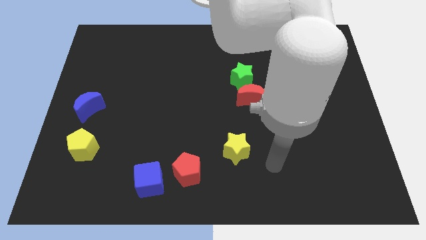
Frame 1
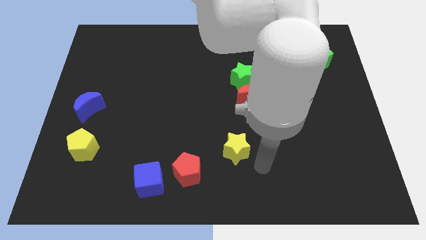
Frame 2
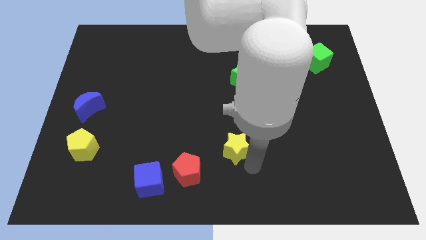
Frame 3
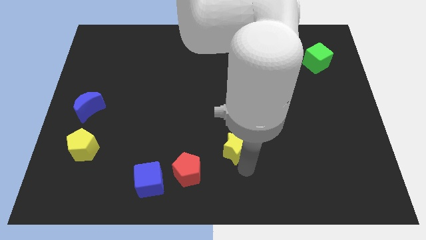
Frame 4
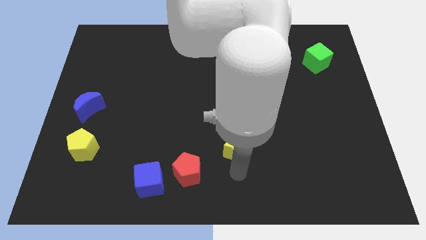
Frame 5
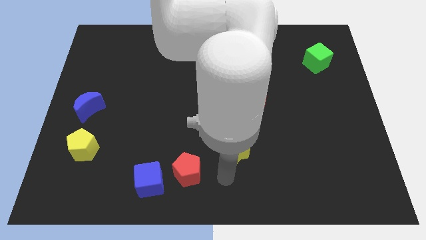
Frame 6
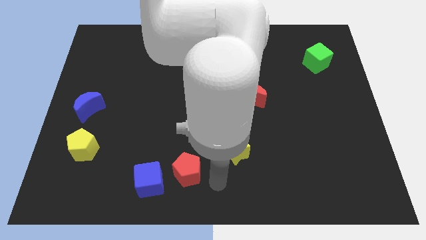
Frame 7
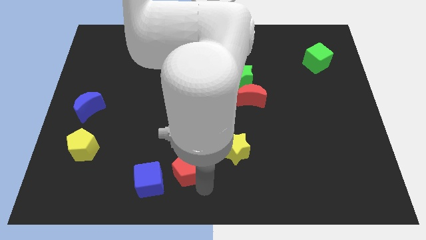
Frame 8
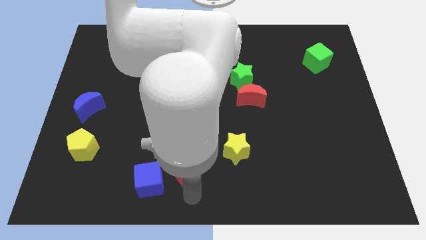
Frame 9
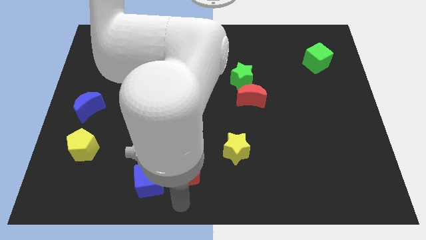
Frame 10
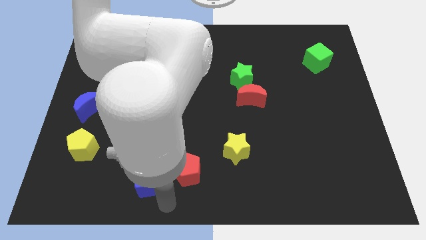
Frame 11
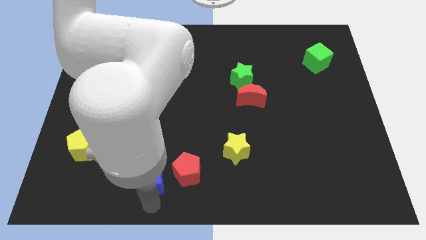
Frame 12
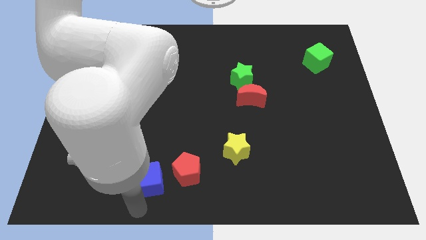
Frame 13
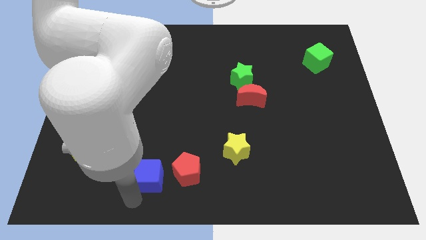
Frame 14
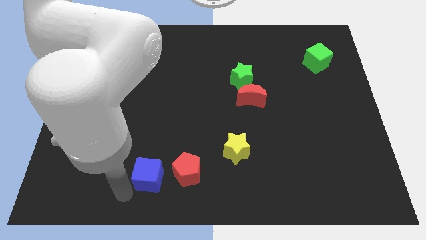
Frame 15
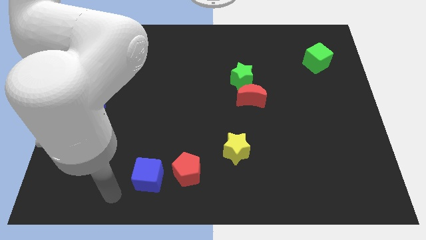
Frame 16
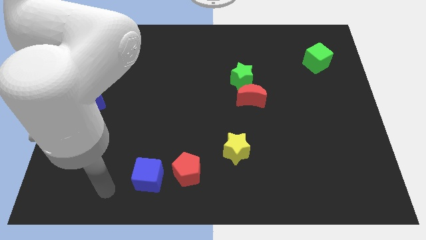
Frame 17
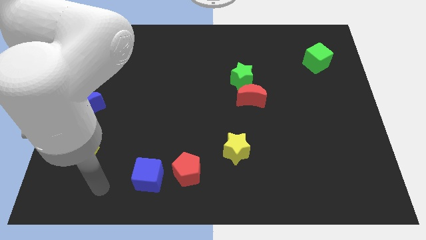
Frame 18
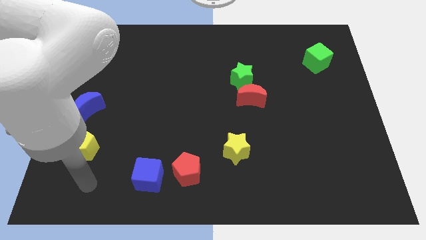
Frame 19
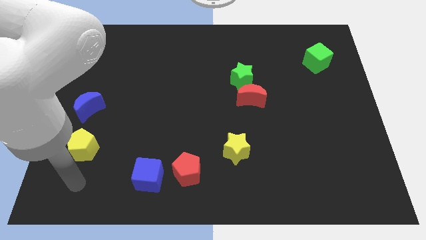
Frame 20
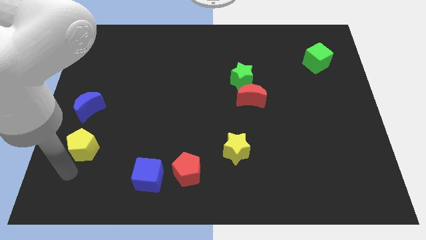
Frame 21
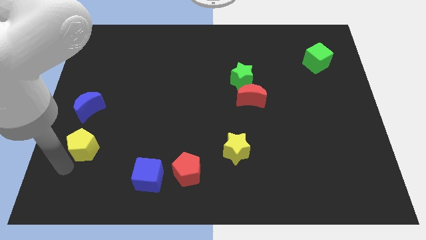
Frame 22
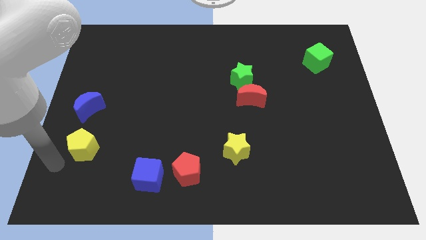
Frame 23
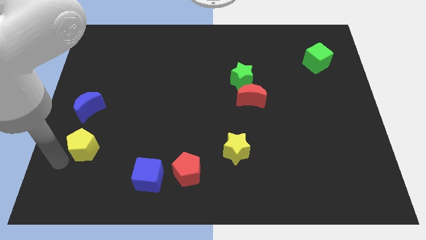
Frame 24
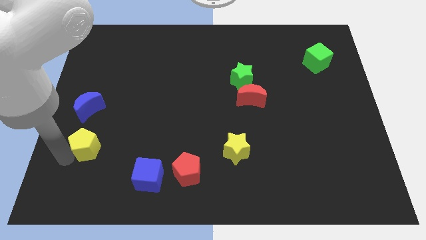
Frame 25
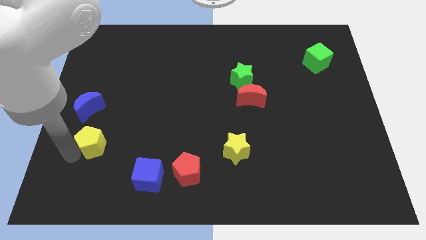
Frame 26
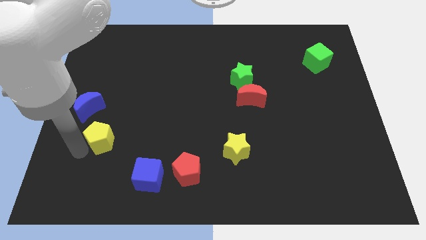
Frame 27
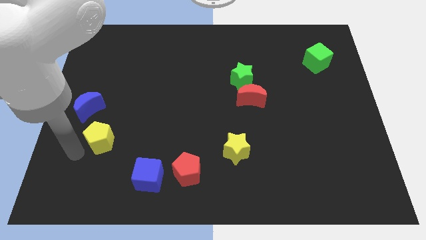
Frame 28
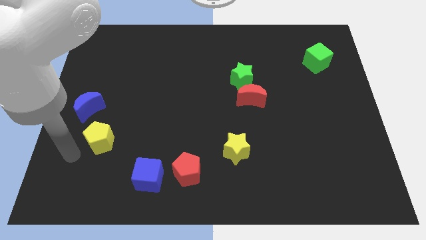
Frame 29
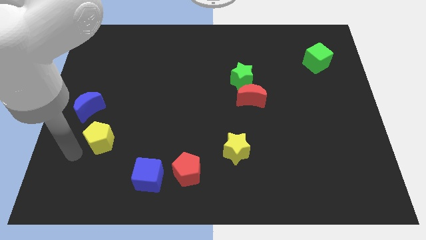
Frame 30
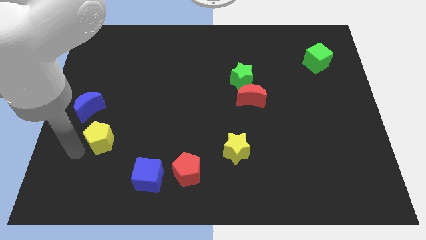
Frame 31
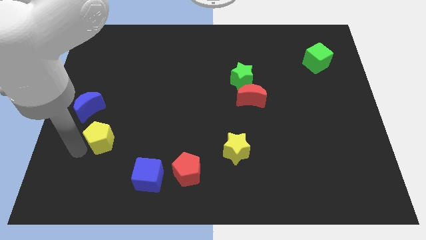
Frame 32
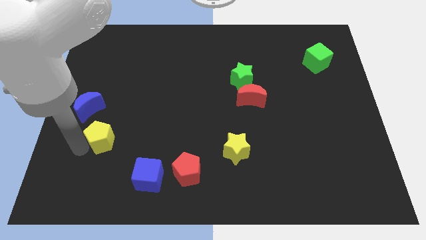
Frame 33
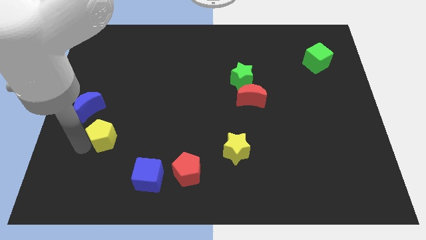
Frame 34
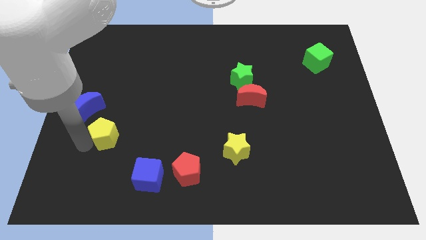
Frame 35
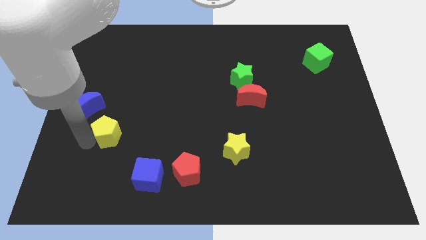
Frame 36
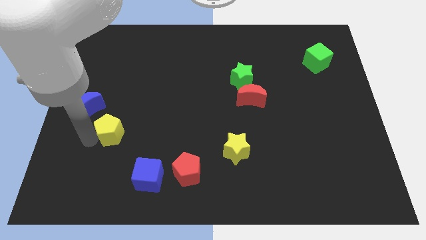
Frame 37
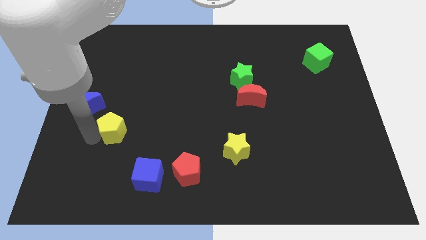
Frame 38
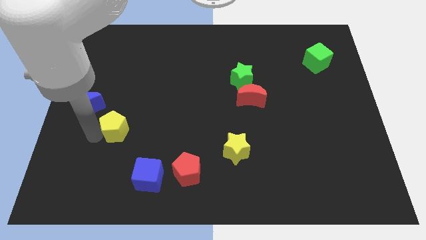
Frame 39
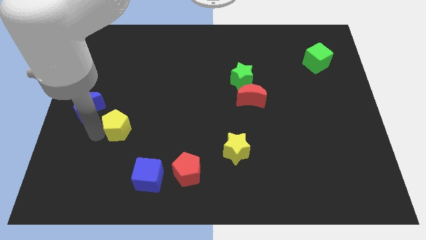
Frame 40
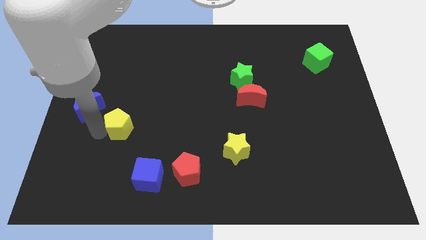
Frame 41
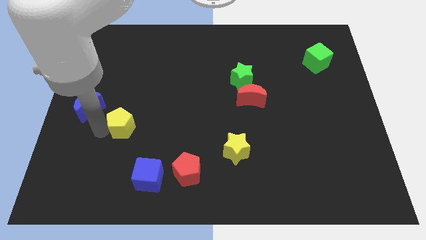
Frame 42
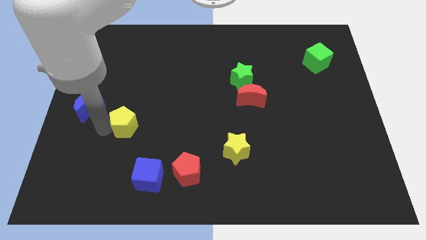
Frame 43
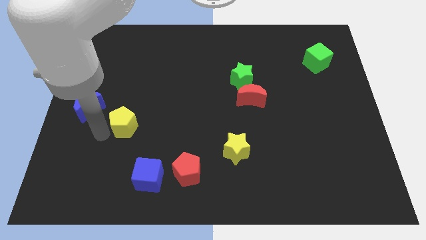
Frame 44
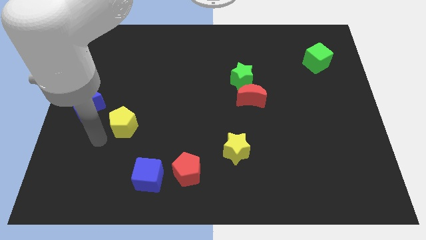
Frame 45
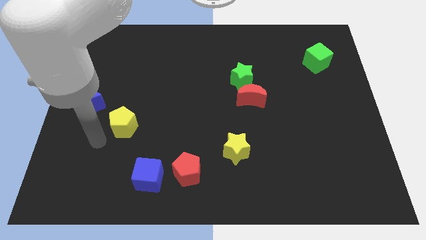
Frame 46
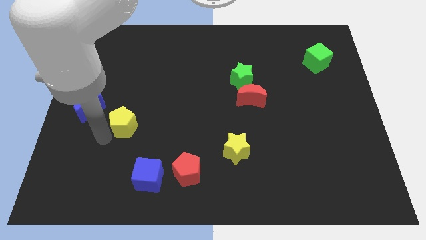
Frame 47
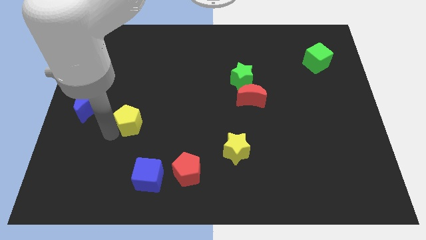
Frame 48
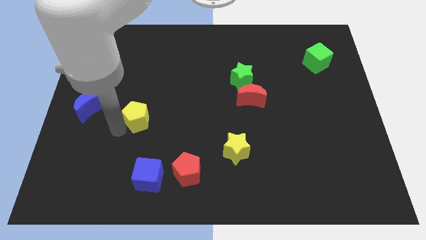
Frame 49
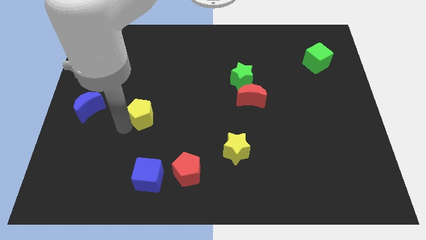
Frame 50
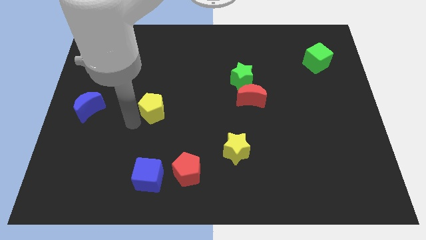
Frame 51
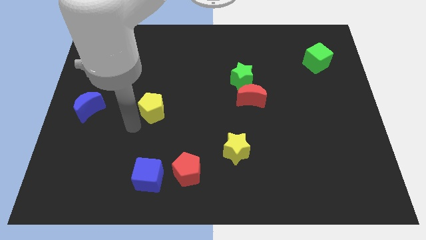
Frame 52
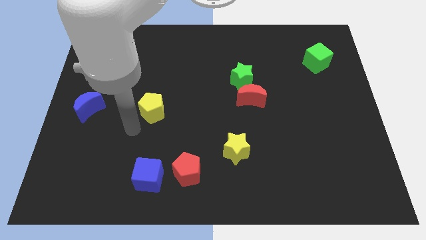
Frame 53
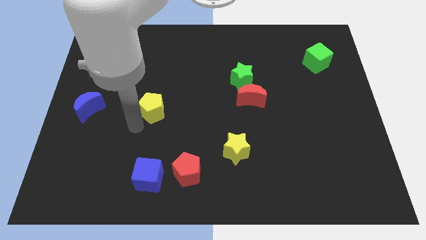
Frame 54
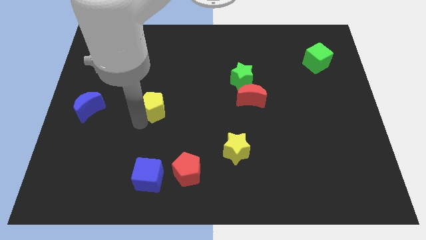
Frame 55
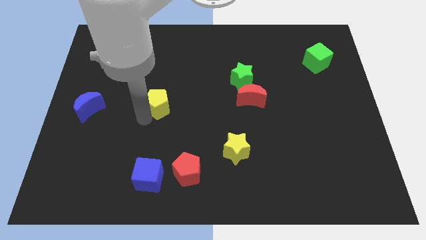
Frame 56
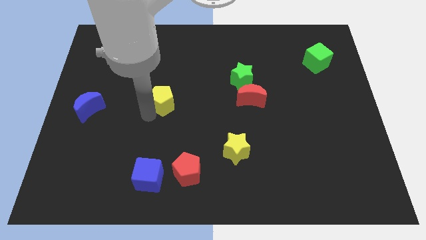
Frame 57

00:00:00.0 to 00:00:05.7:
push the yellow pentagon diagonally upwards and right

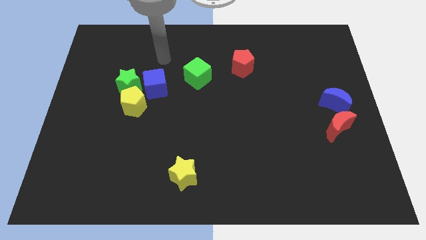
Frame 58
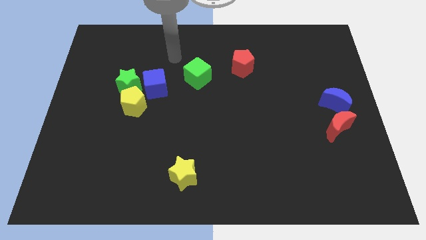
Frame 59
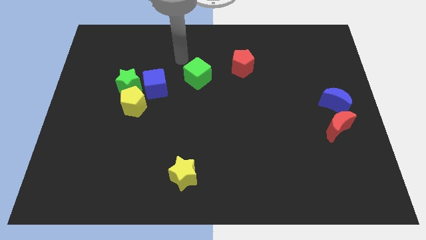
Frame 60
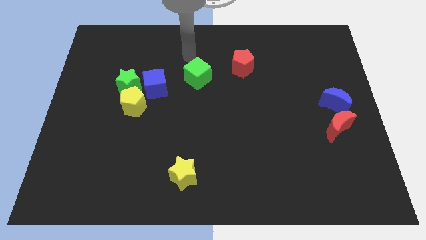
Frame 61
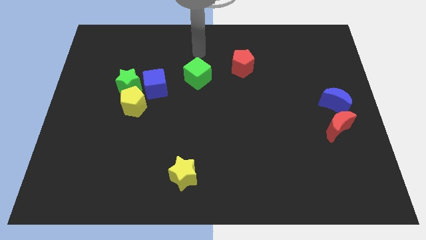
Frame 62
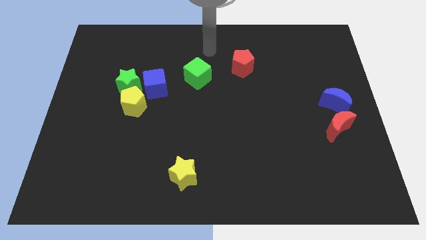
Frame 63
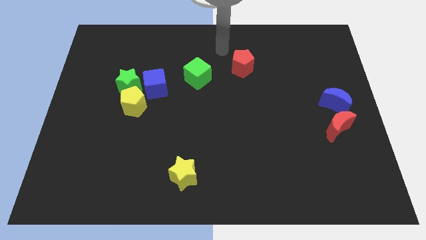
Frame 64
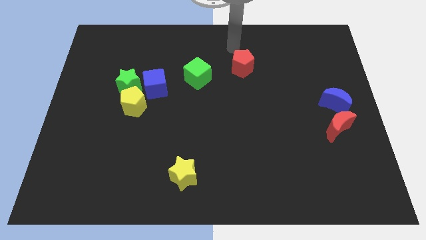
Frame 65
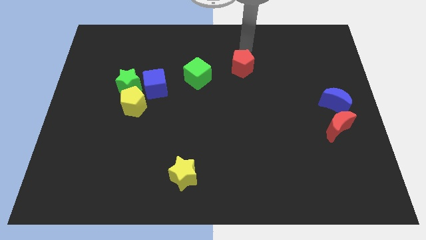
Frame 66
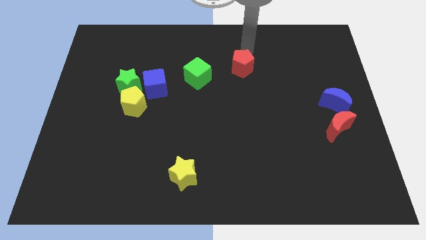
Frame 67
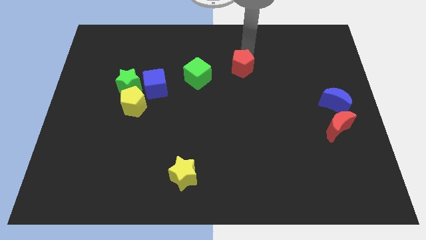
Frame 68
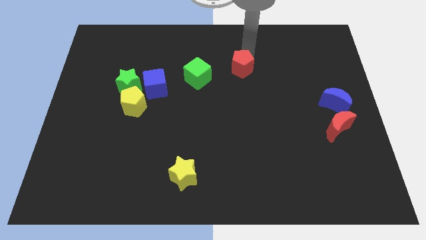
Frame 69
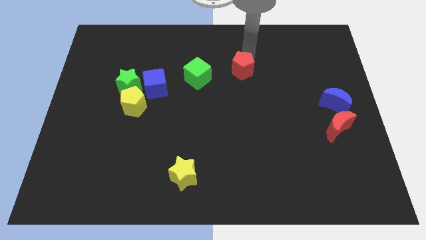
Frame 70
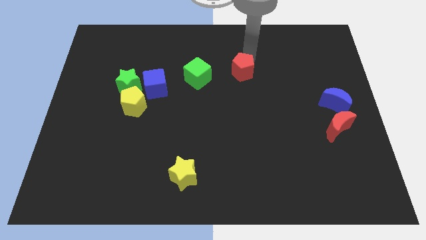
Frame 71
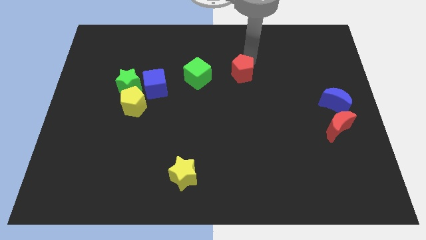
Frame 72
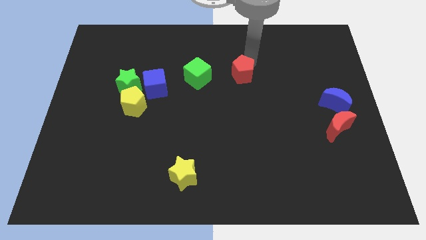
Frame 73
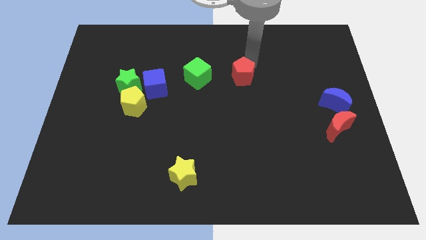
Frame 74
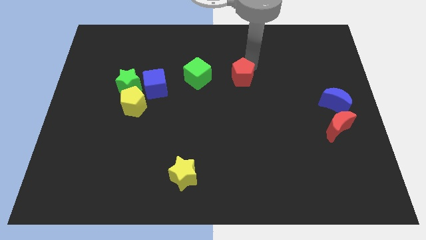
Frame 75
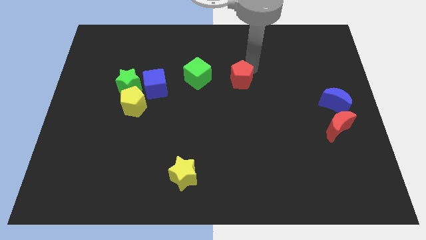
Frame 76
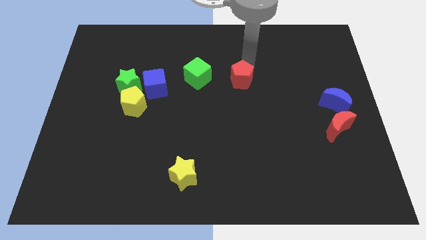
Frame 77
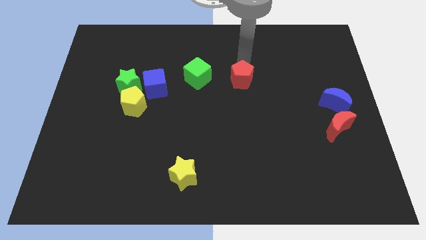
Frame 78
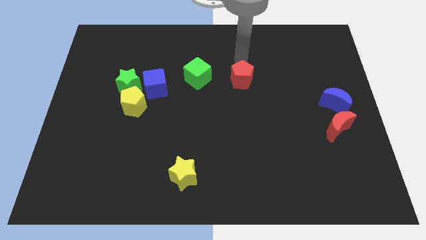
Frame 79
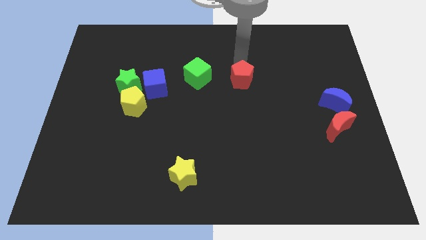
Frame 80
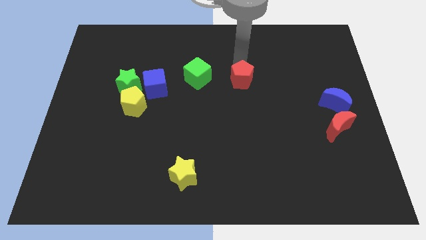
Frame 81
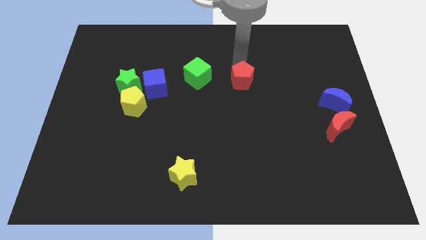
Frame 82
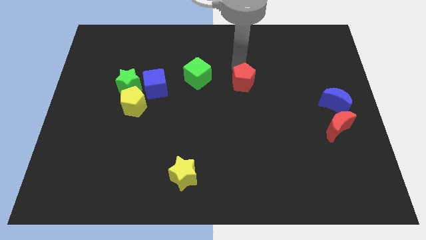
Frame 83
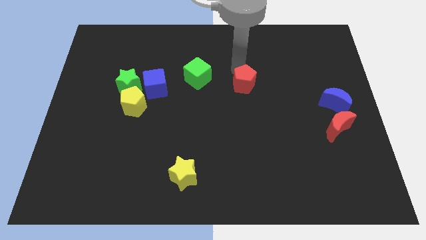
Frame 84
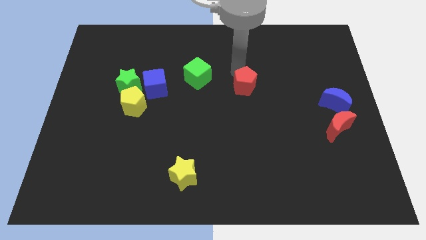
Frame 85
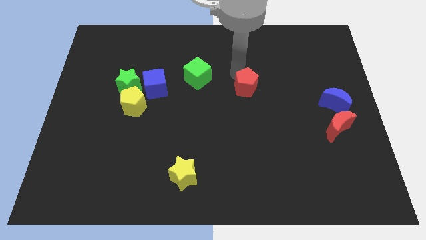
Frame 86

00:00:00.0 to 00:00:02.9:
slide the red pentagon a little bit downwards
